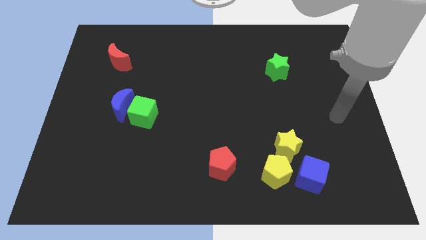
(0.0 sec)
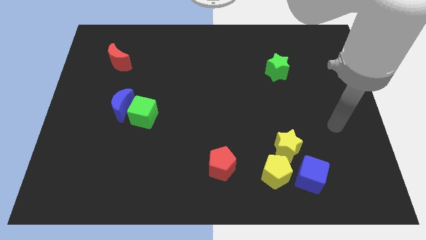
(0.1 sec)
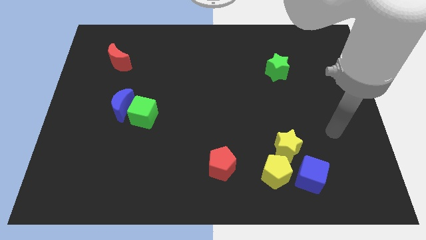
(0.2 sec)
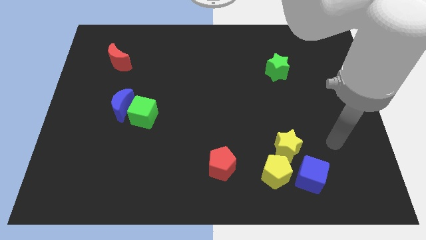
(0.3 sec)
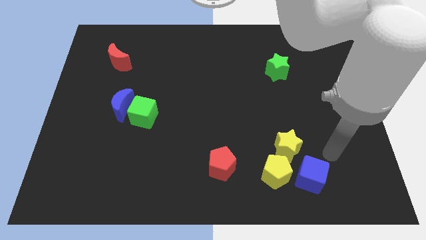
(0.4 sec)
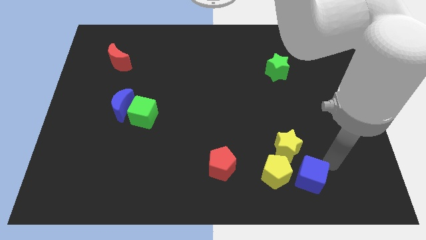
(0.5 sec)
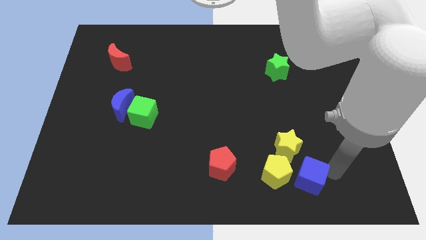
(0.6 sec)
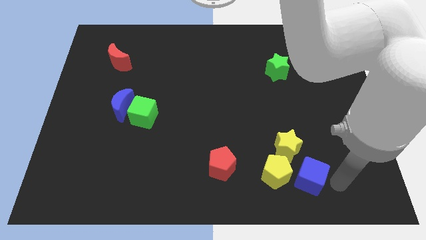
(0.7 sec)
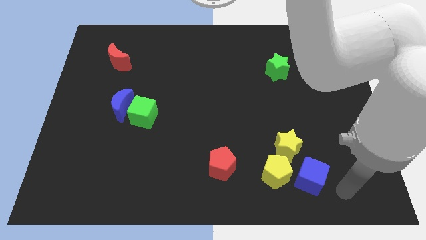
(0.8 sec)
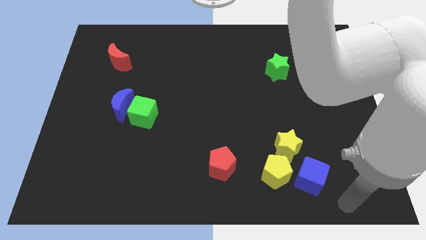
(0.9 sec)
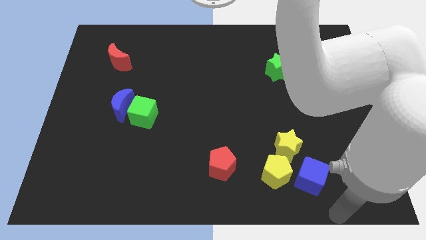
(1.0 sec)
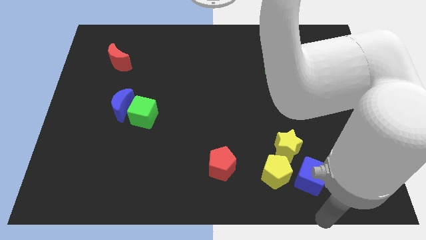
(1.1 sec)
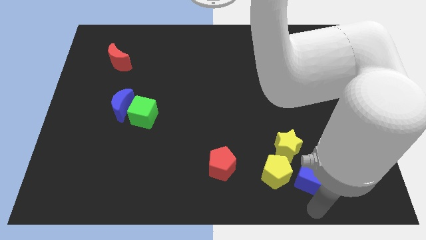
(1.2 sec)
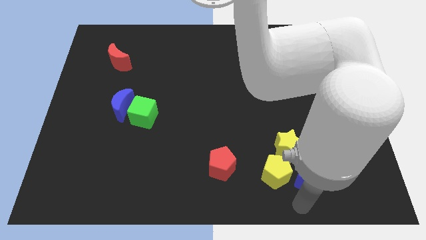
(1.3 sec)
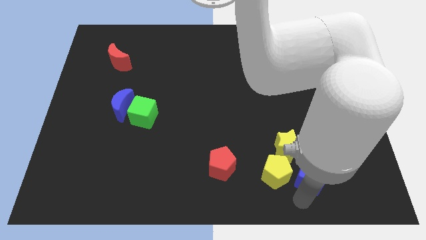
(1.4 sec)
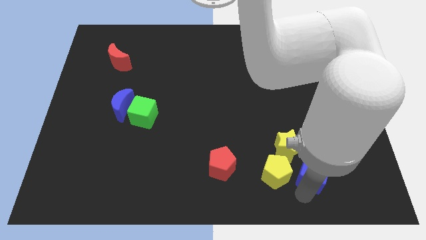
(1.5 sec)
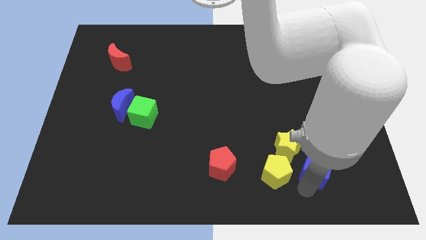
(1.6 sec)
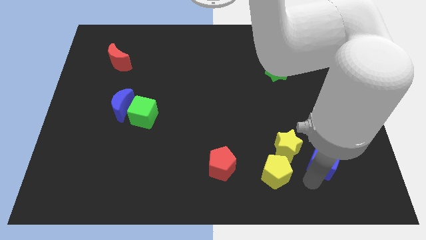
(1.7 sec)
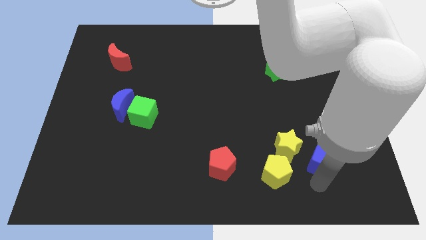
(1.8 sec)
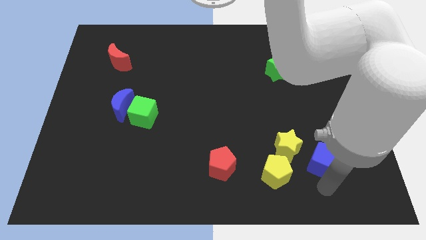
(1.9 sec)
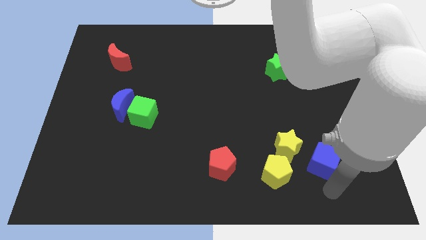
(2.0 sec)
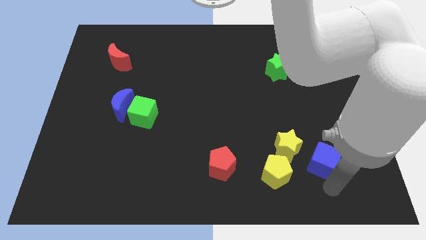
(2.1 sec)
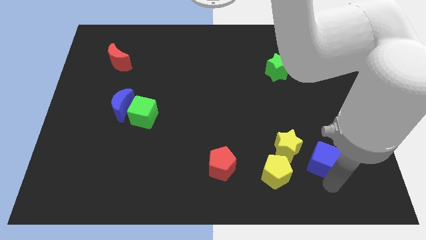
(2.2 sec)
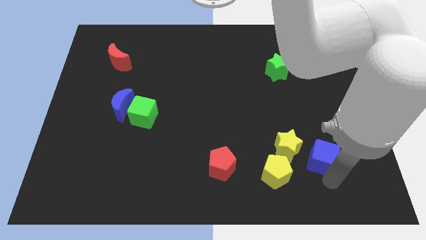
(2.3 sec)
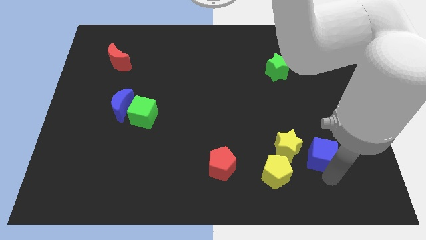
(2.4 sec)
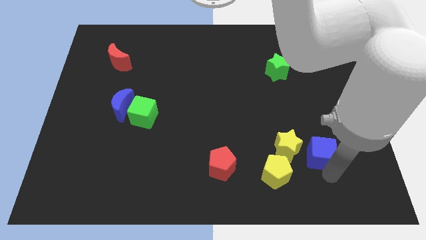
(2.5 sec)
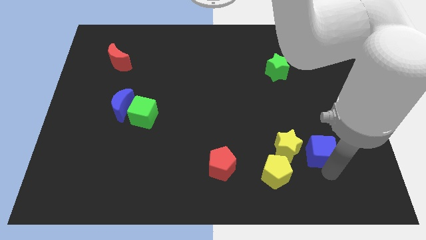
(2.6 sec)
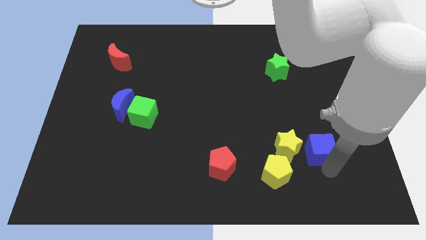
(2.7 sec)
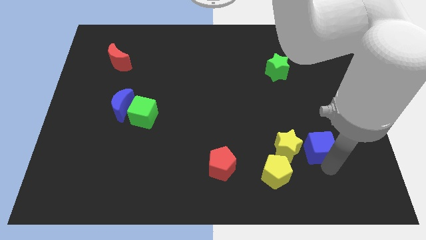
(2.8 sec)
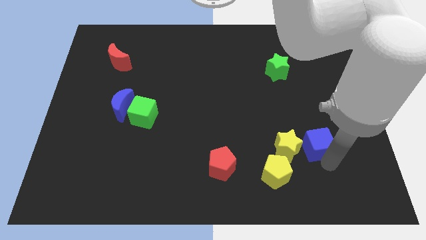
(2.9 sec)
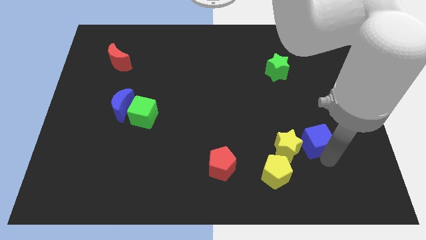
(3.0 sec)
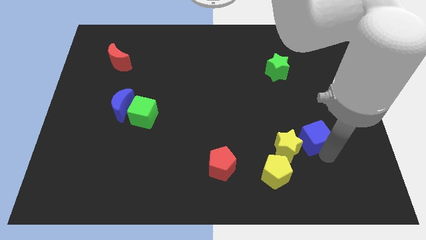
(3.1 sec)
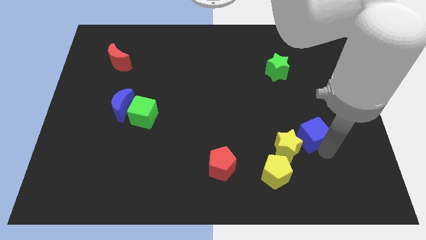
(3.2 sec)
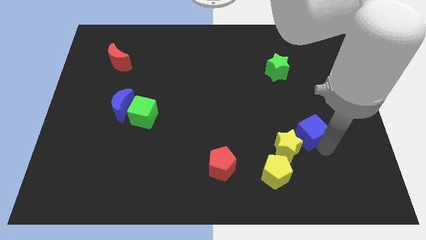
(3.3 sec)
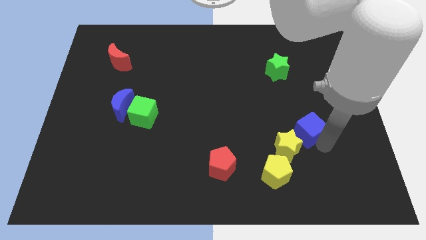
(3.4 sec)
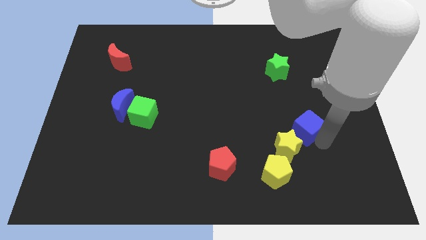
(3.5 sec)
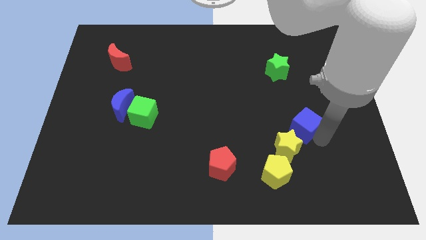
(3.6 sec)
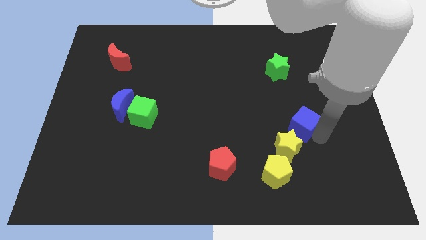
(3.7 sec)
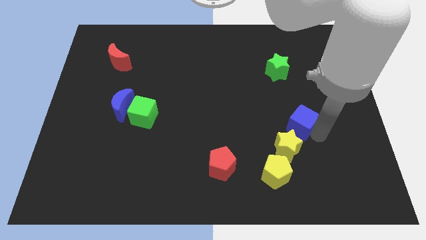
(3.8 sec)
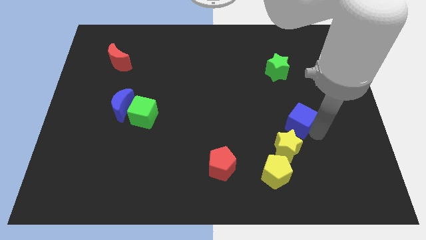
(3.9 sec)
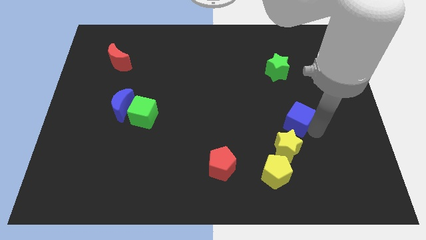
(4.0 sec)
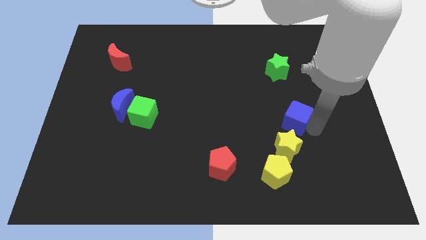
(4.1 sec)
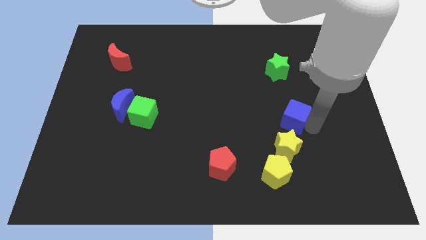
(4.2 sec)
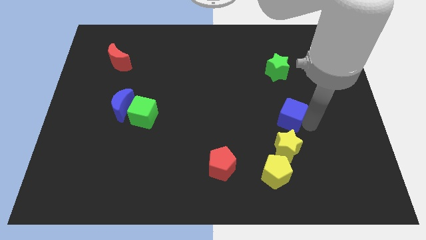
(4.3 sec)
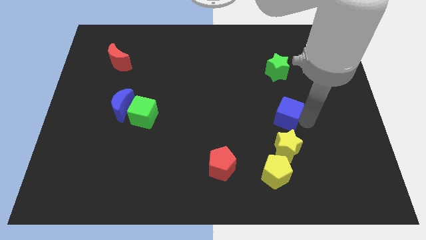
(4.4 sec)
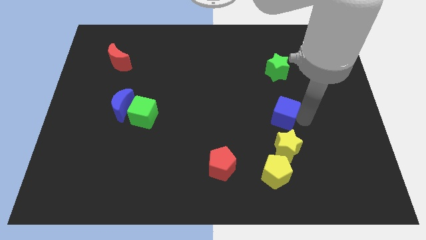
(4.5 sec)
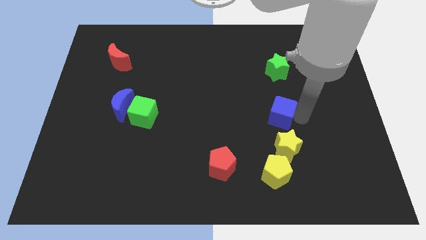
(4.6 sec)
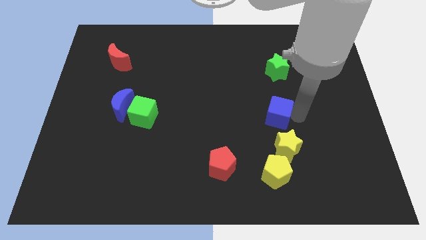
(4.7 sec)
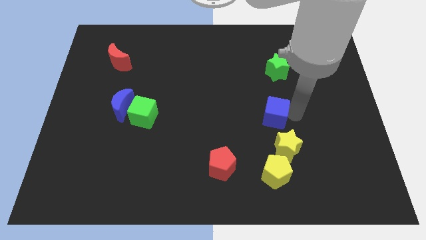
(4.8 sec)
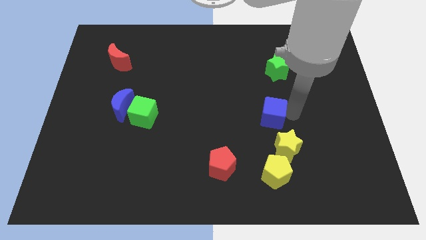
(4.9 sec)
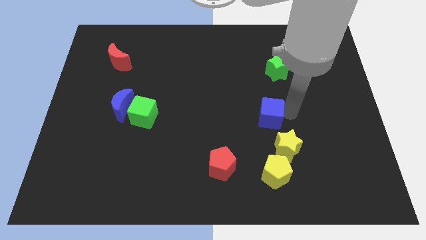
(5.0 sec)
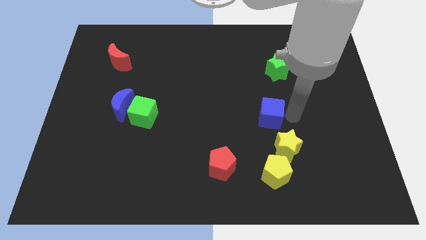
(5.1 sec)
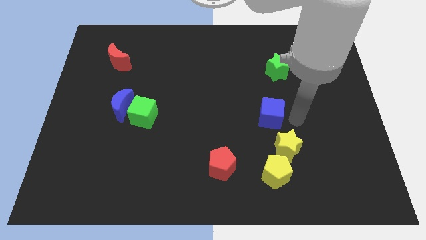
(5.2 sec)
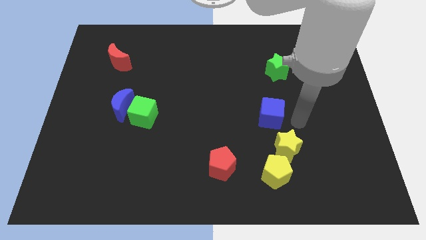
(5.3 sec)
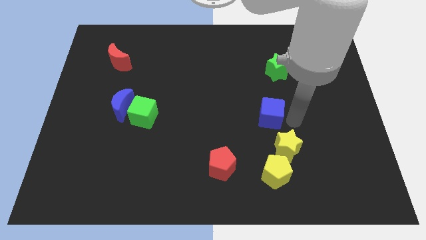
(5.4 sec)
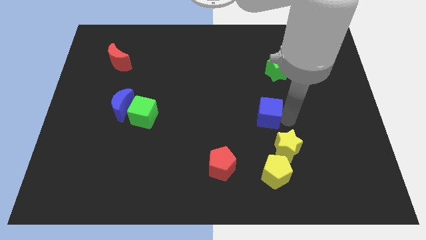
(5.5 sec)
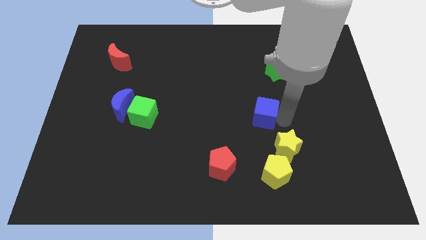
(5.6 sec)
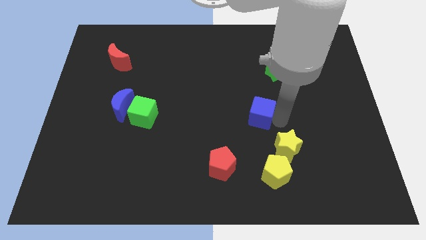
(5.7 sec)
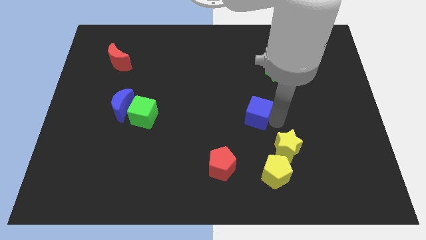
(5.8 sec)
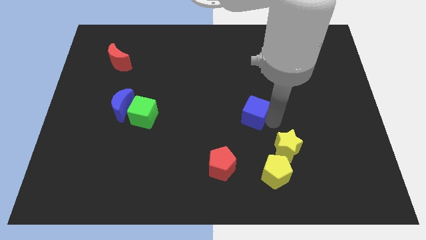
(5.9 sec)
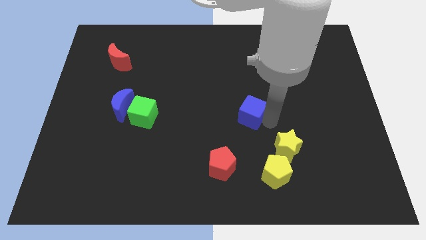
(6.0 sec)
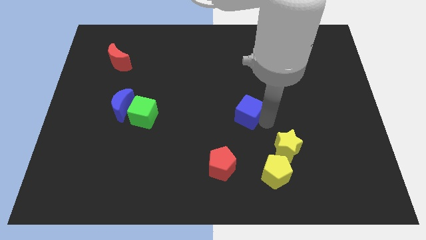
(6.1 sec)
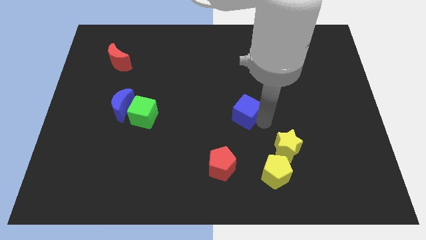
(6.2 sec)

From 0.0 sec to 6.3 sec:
move the blue cube up and then to the left

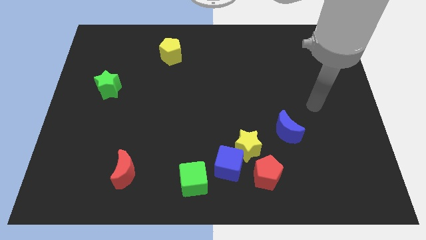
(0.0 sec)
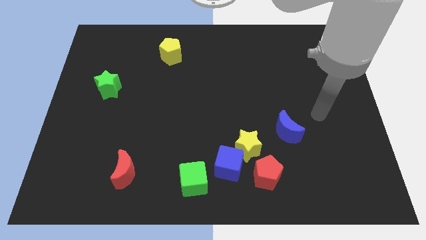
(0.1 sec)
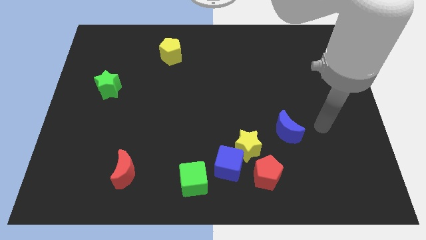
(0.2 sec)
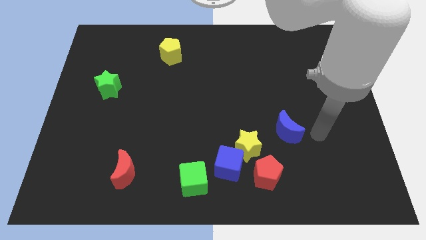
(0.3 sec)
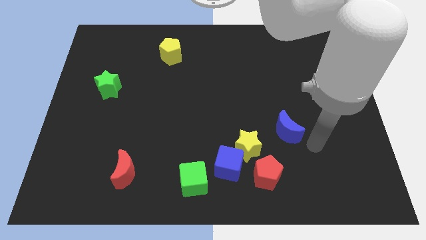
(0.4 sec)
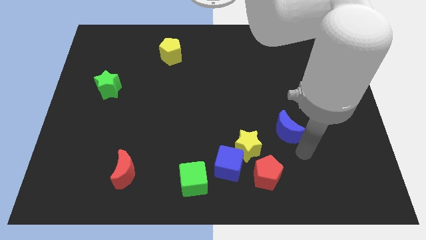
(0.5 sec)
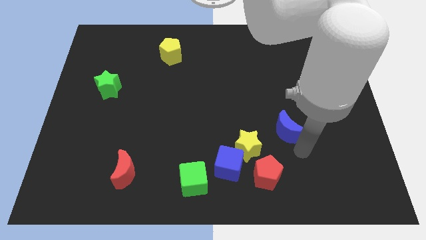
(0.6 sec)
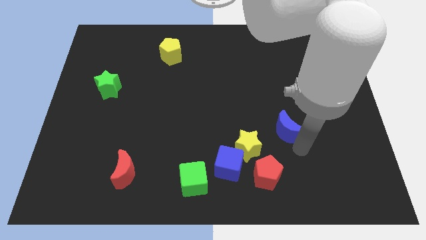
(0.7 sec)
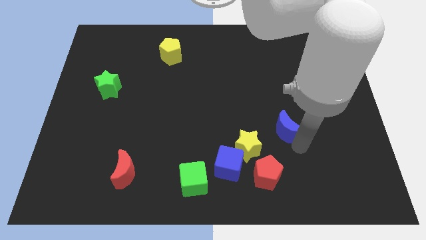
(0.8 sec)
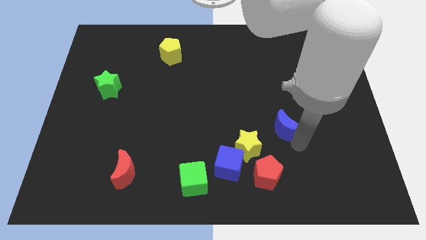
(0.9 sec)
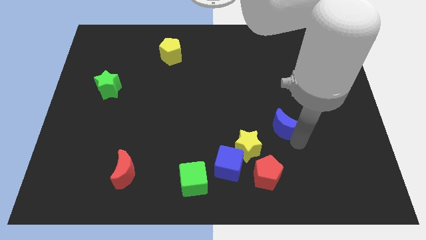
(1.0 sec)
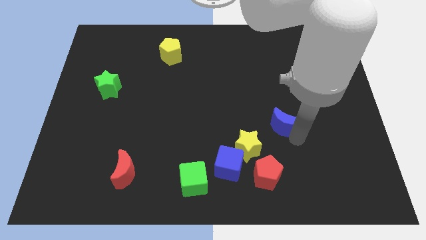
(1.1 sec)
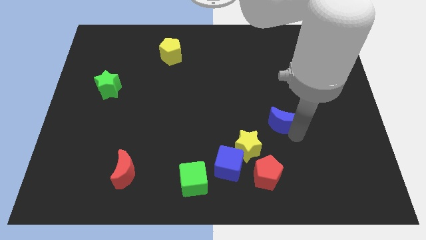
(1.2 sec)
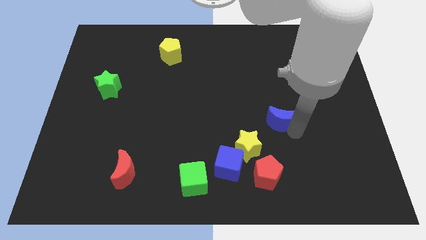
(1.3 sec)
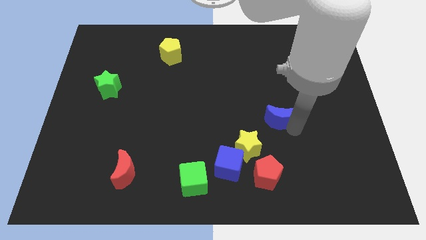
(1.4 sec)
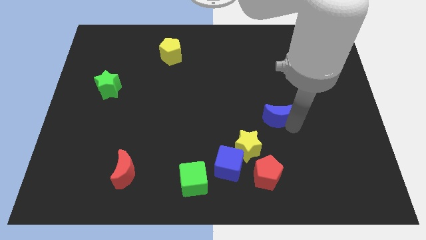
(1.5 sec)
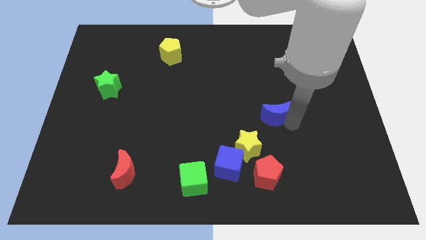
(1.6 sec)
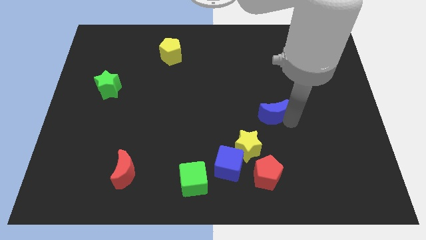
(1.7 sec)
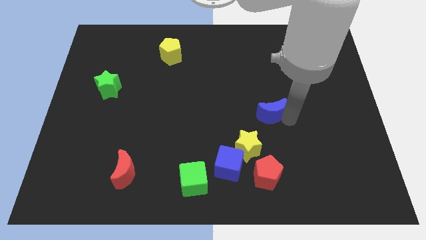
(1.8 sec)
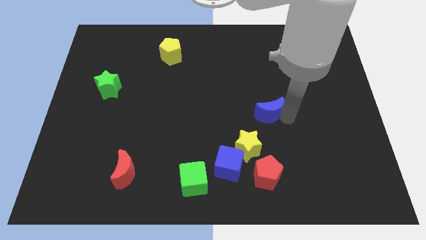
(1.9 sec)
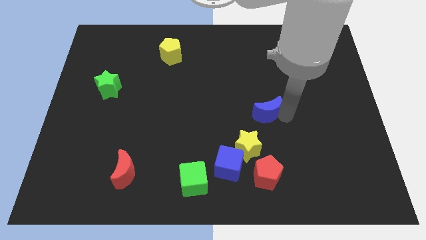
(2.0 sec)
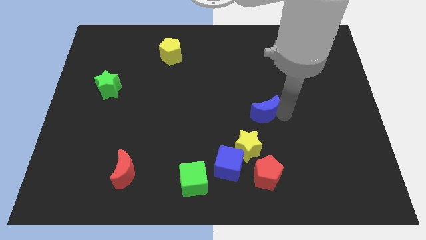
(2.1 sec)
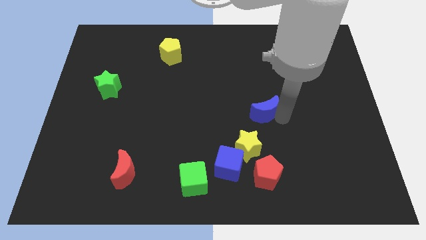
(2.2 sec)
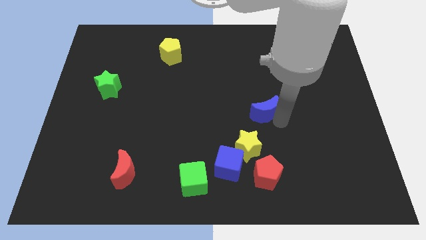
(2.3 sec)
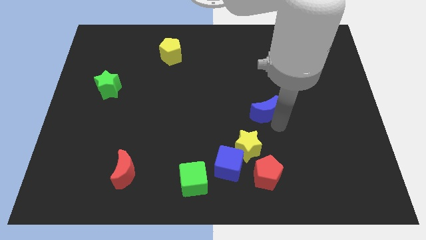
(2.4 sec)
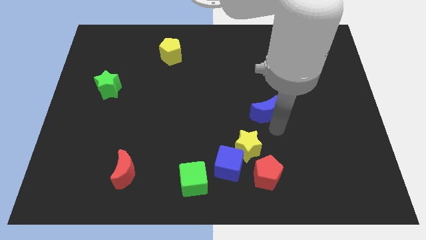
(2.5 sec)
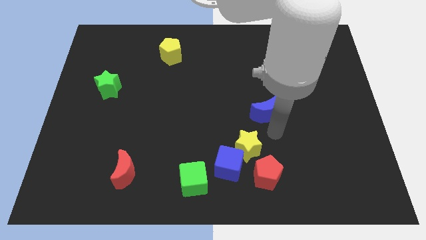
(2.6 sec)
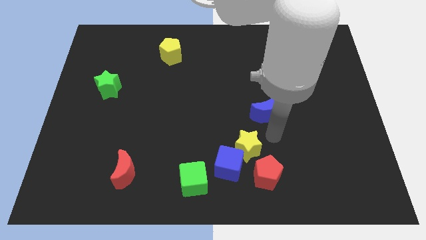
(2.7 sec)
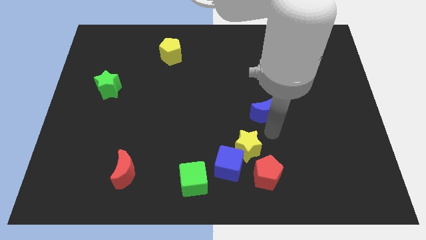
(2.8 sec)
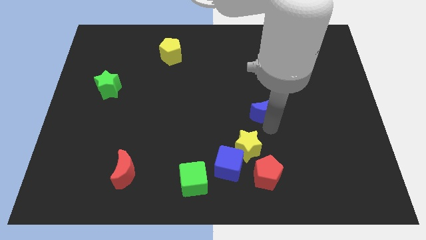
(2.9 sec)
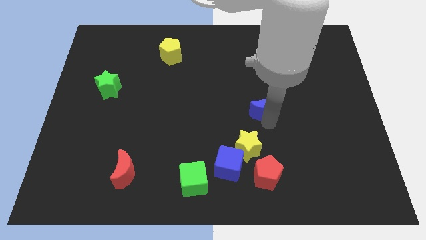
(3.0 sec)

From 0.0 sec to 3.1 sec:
slide the blue moon a bit upwards and to the left
